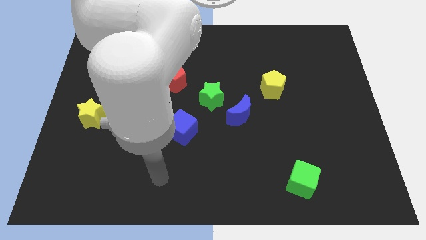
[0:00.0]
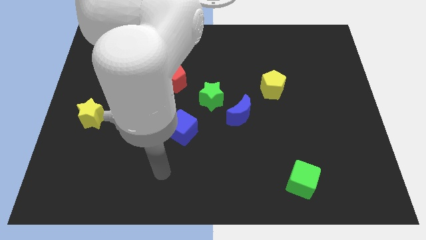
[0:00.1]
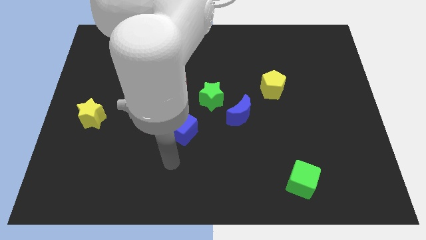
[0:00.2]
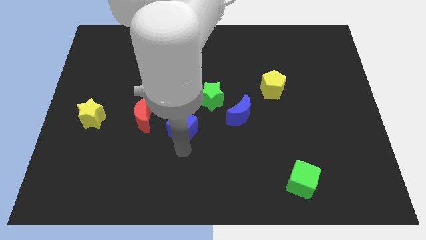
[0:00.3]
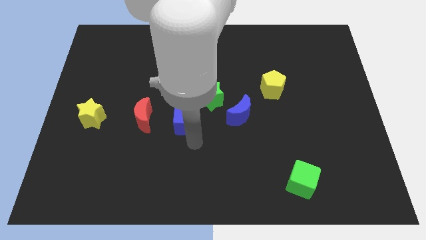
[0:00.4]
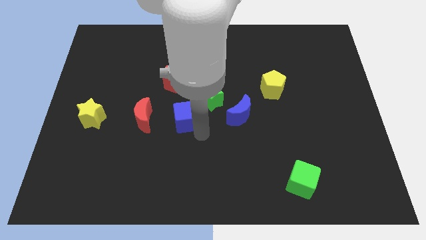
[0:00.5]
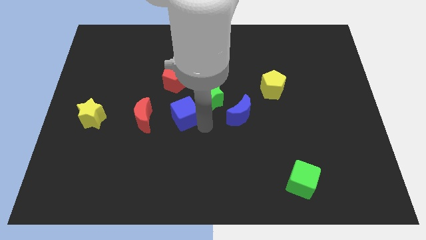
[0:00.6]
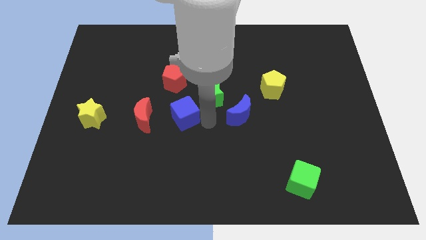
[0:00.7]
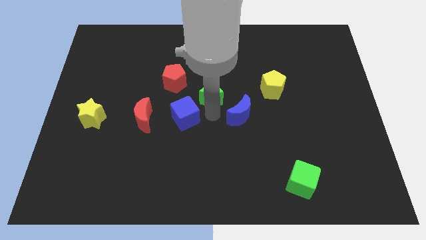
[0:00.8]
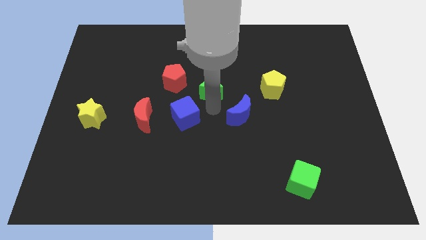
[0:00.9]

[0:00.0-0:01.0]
pull the blue moon apart from the green star

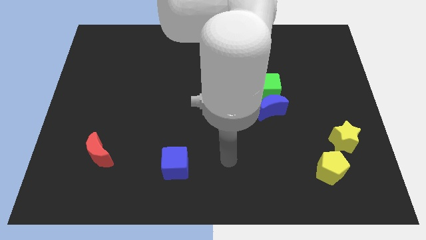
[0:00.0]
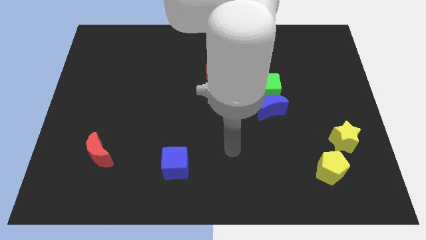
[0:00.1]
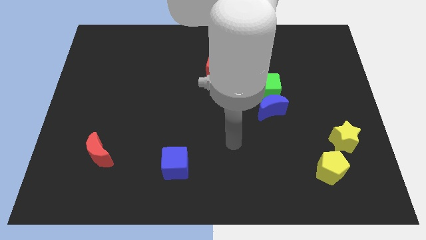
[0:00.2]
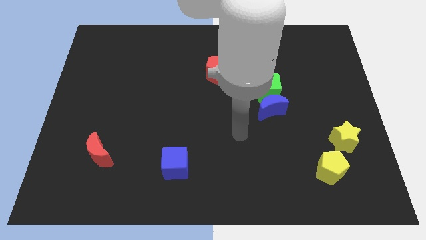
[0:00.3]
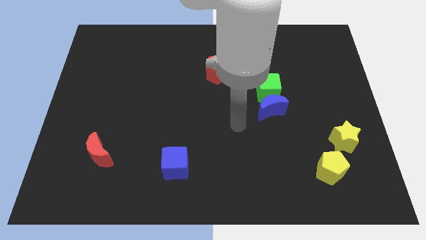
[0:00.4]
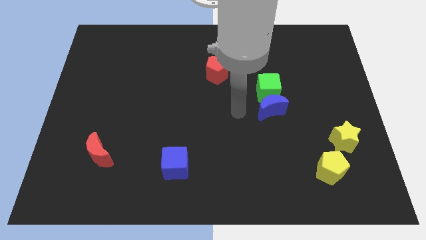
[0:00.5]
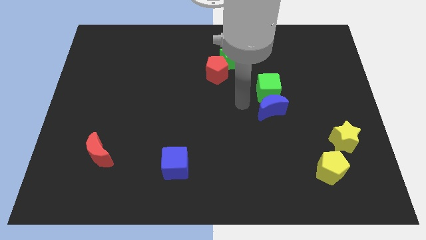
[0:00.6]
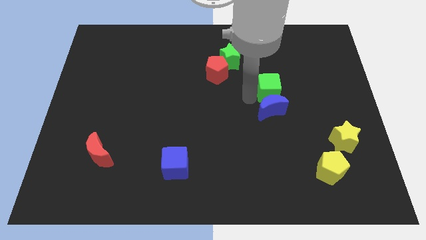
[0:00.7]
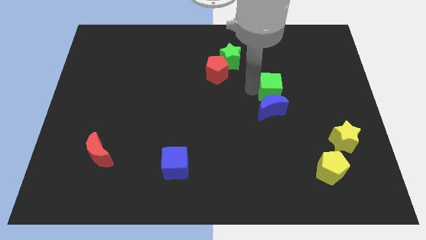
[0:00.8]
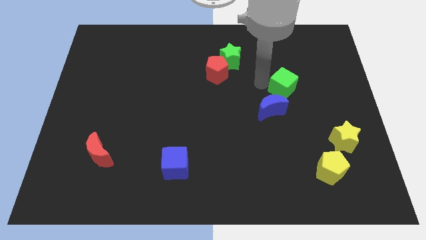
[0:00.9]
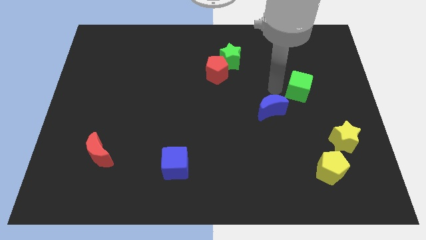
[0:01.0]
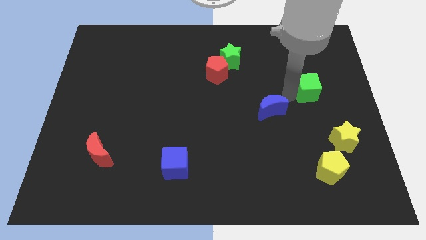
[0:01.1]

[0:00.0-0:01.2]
move the blue moon away from the green cube

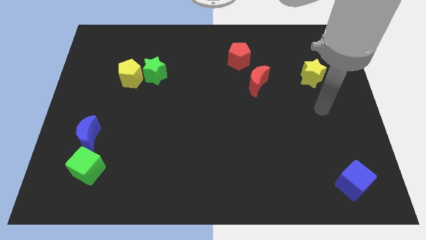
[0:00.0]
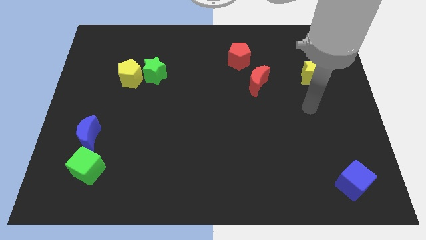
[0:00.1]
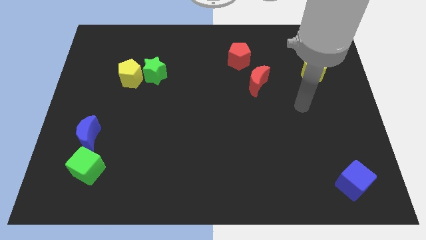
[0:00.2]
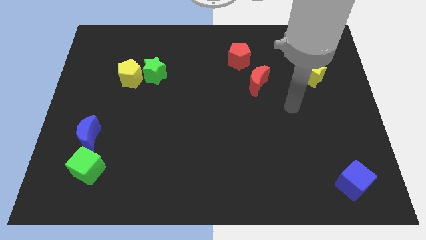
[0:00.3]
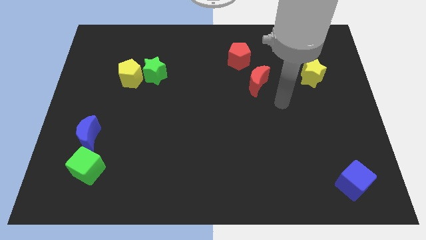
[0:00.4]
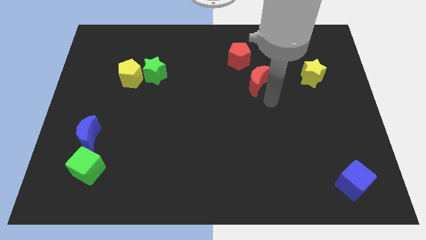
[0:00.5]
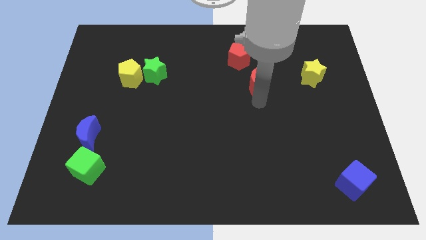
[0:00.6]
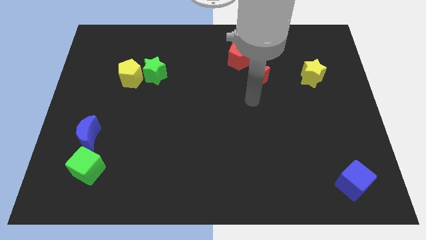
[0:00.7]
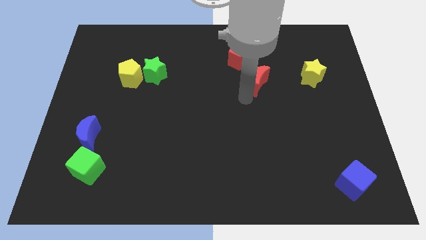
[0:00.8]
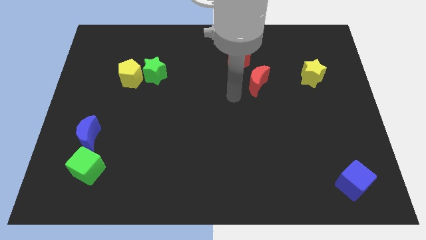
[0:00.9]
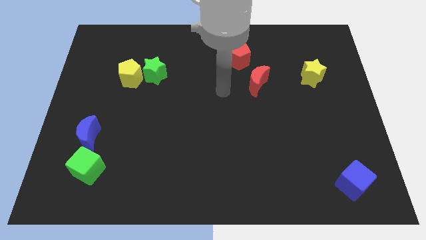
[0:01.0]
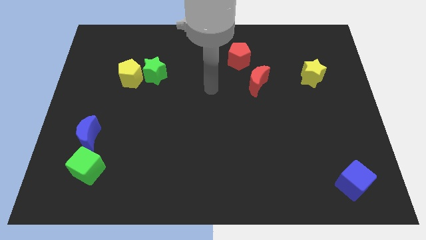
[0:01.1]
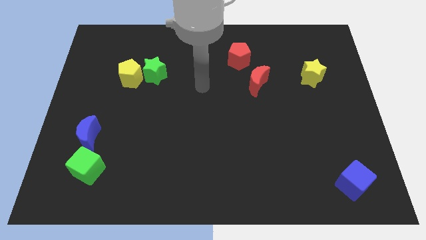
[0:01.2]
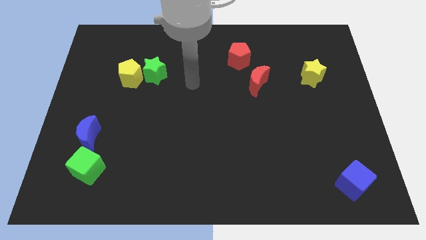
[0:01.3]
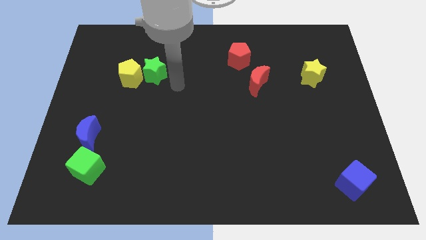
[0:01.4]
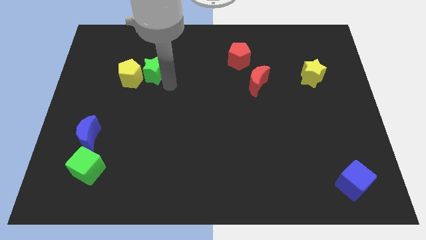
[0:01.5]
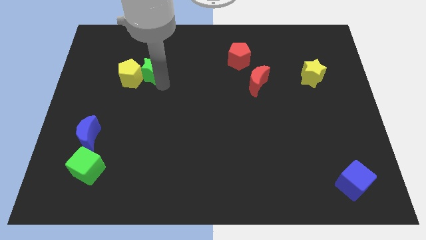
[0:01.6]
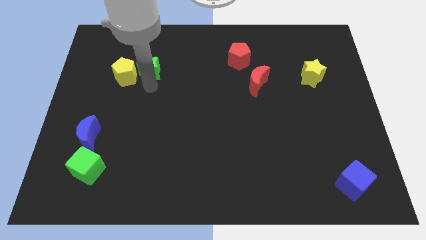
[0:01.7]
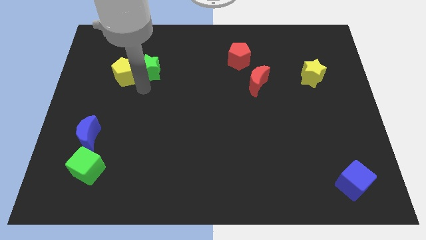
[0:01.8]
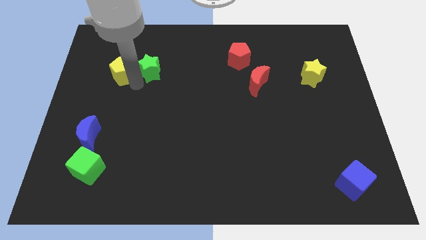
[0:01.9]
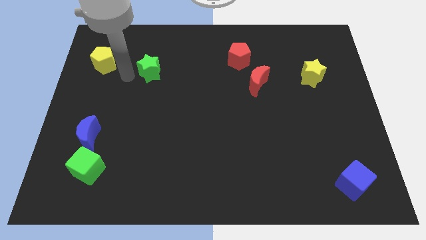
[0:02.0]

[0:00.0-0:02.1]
separate the green star from the yellow pentagon

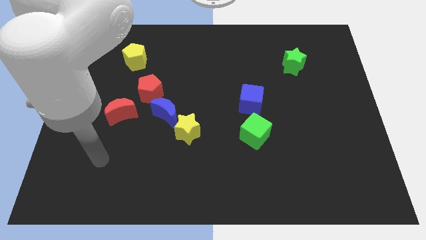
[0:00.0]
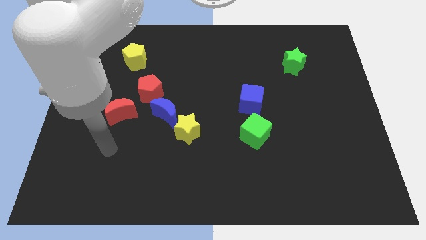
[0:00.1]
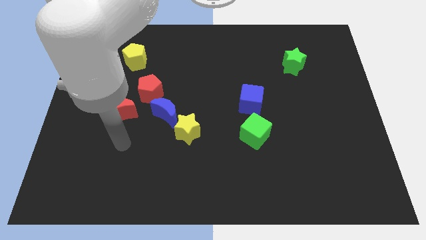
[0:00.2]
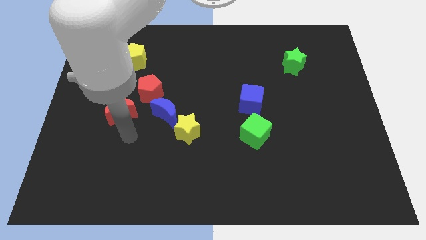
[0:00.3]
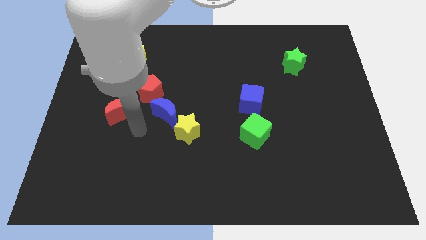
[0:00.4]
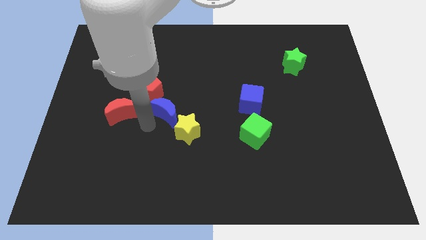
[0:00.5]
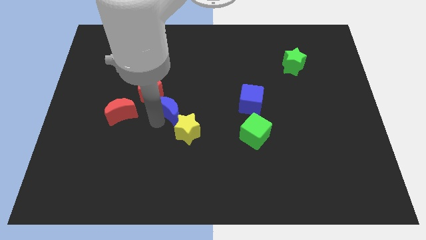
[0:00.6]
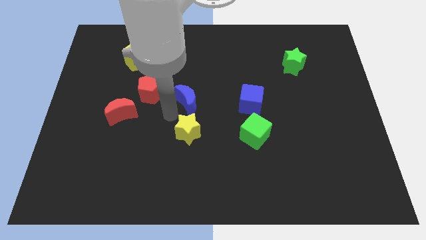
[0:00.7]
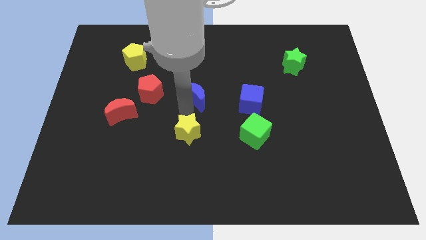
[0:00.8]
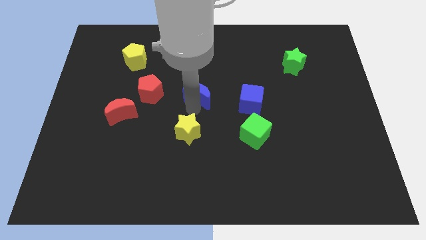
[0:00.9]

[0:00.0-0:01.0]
move the yellow star away from the blue moon

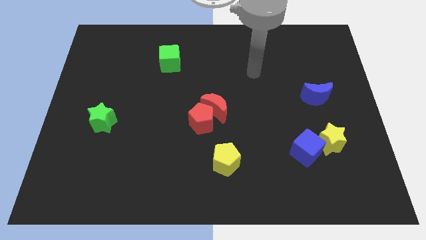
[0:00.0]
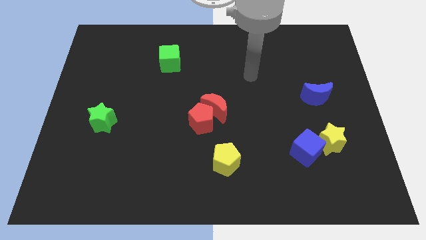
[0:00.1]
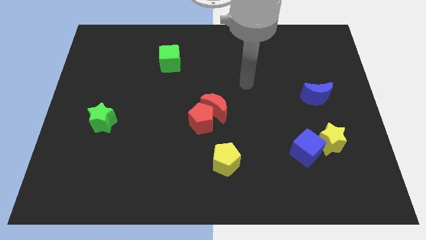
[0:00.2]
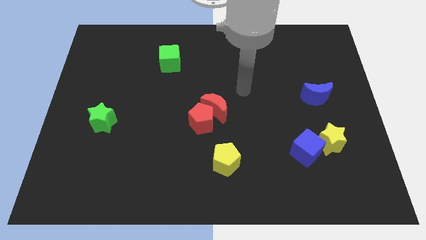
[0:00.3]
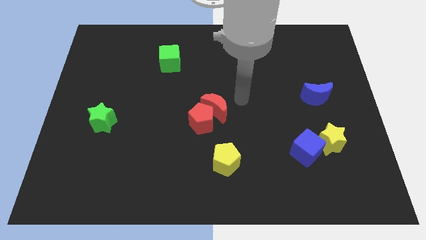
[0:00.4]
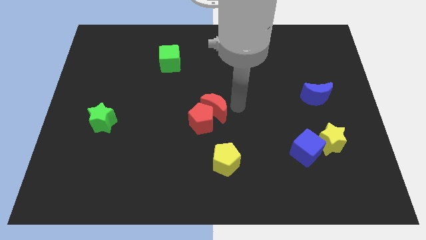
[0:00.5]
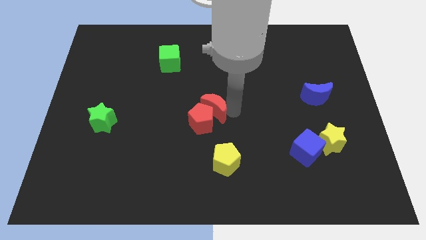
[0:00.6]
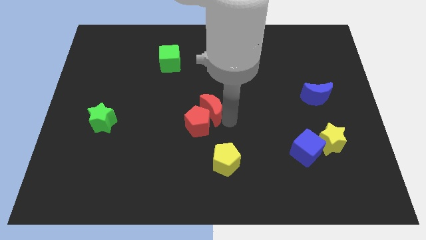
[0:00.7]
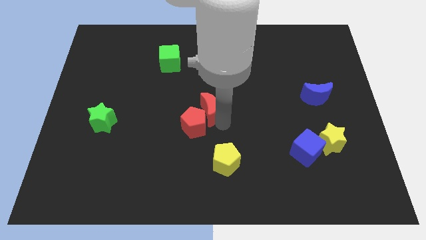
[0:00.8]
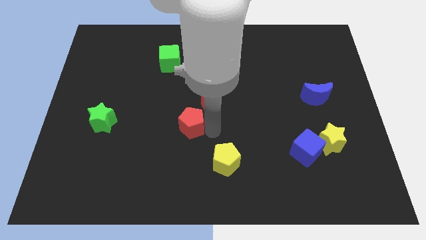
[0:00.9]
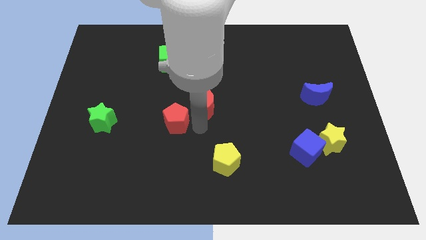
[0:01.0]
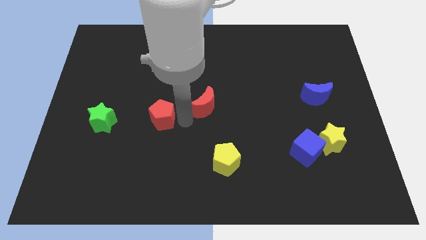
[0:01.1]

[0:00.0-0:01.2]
pull the red moon apart from the red pentagon

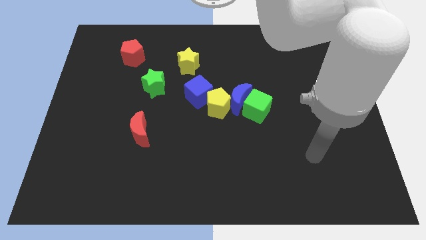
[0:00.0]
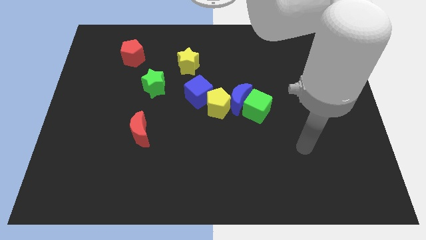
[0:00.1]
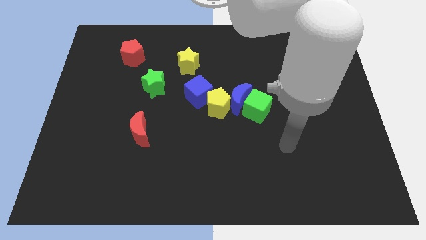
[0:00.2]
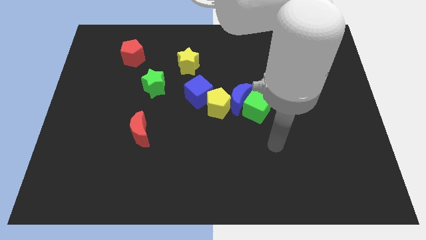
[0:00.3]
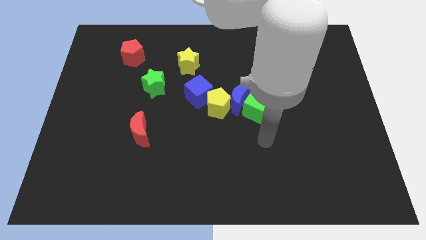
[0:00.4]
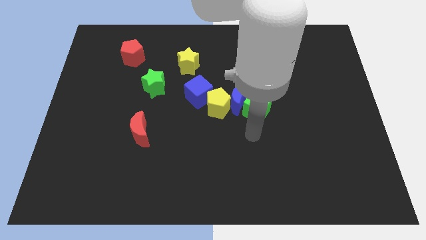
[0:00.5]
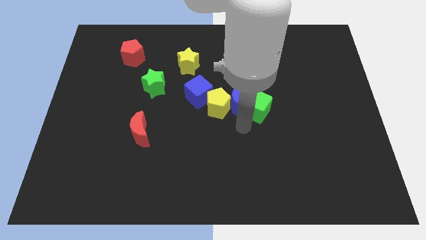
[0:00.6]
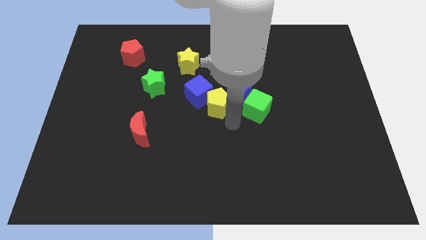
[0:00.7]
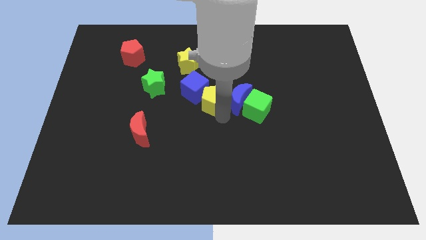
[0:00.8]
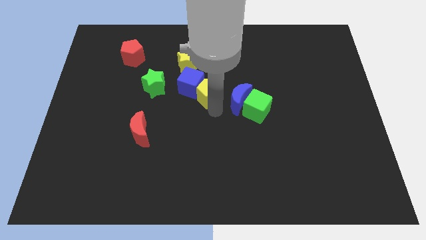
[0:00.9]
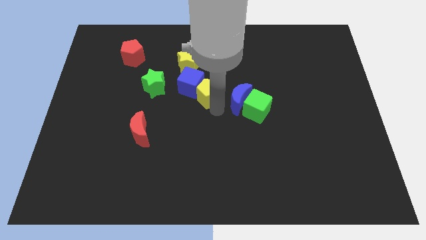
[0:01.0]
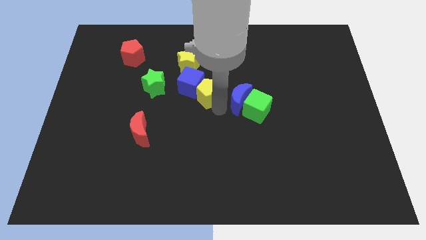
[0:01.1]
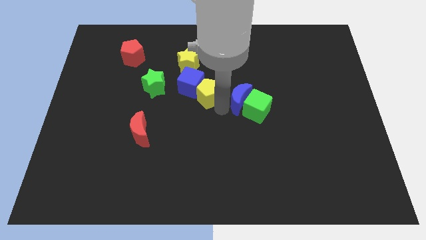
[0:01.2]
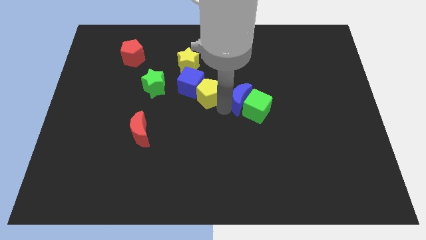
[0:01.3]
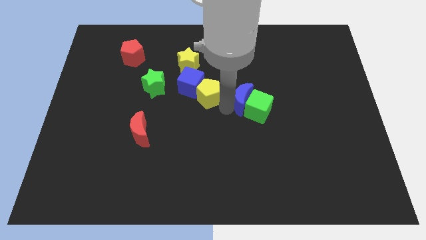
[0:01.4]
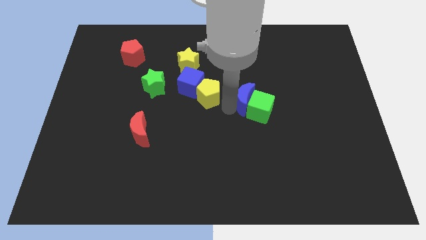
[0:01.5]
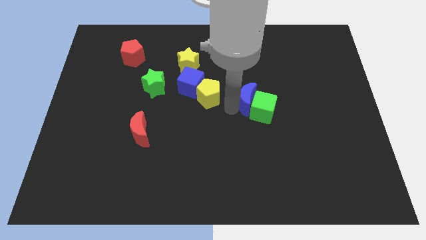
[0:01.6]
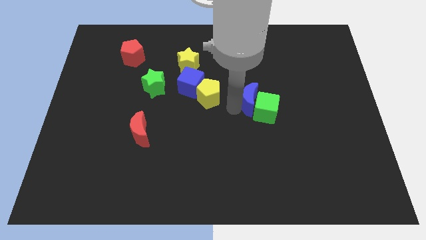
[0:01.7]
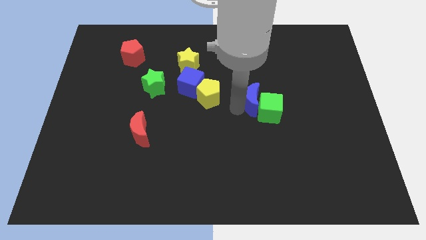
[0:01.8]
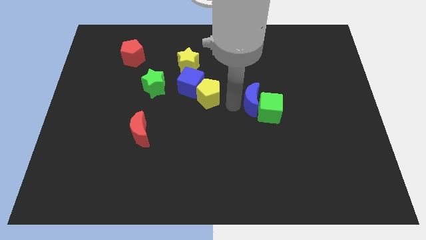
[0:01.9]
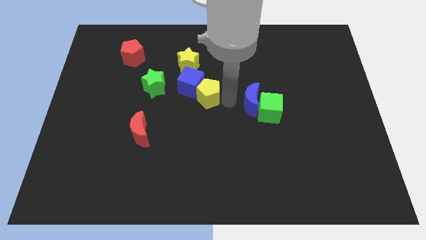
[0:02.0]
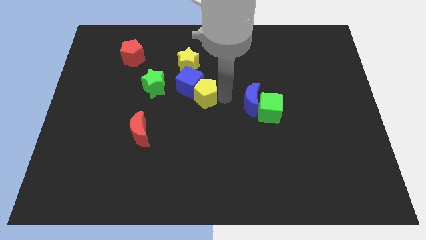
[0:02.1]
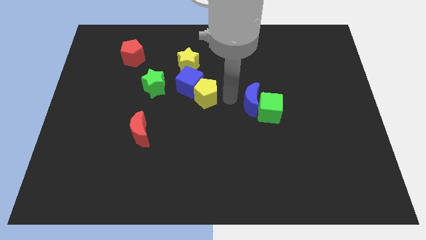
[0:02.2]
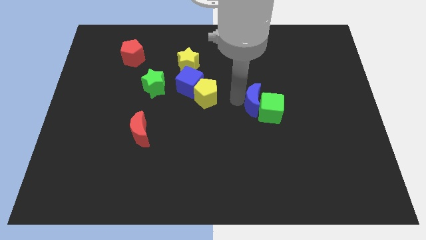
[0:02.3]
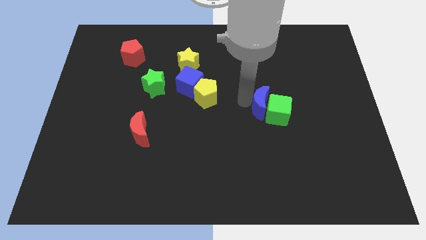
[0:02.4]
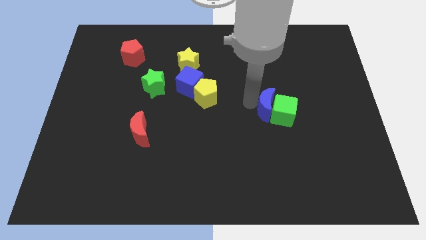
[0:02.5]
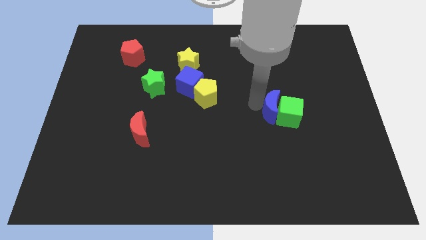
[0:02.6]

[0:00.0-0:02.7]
pull the blue moon apart from the green cube, yellow pentagon, and blue cube
